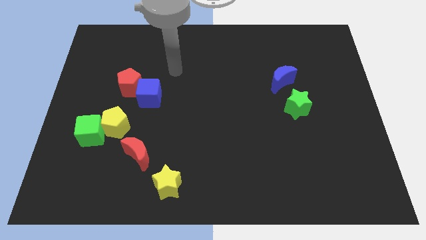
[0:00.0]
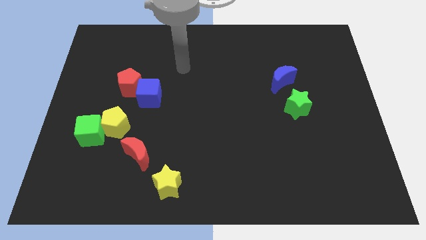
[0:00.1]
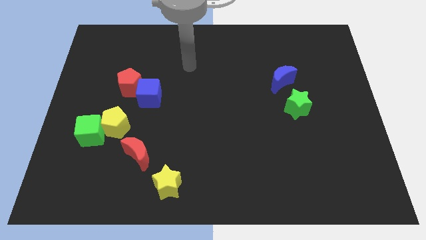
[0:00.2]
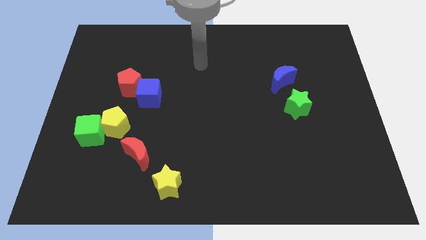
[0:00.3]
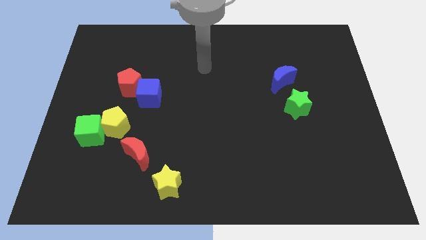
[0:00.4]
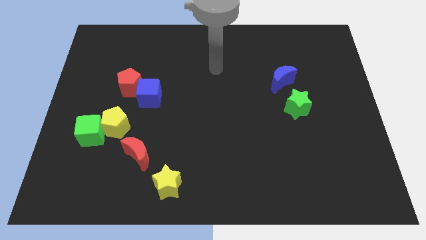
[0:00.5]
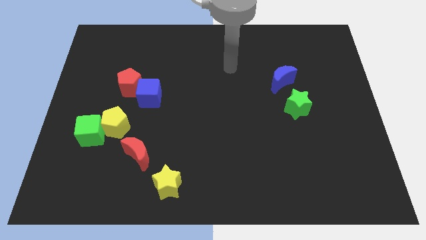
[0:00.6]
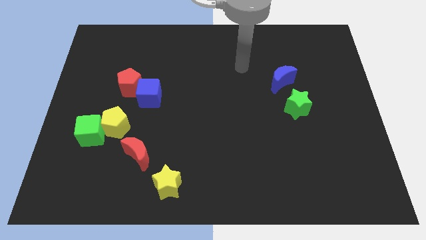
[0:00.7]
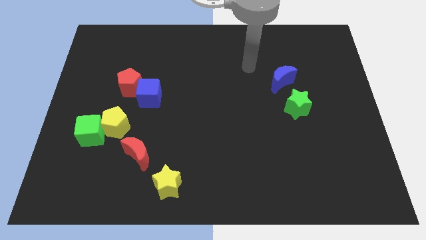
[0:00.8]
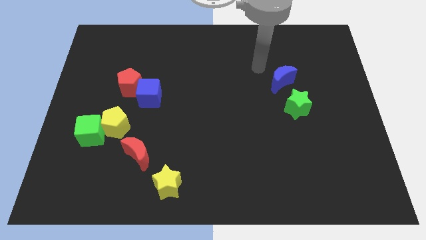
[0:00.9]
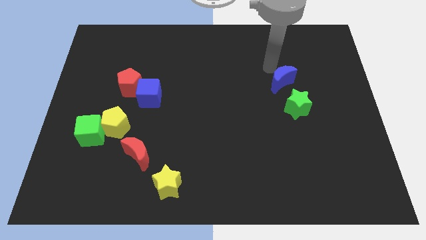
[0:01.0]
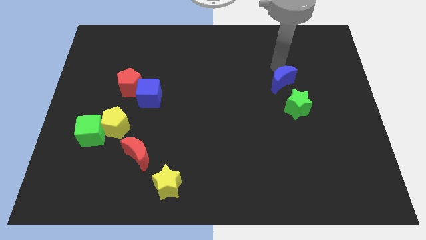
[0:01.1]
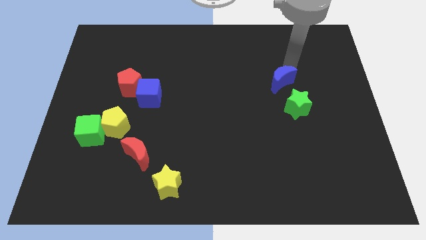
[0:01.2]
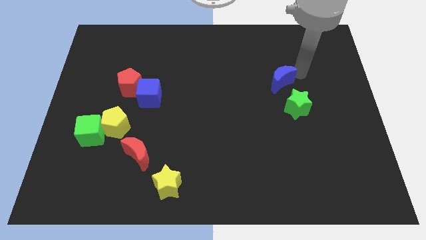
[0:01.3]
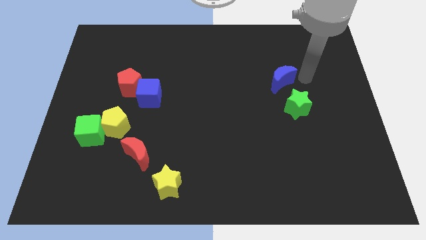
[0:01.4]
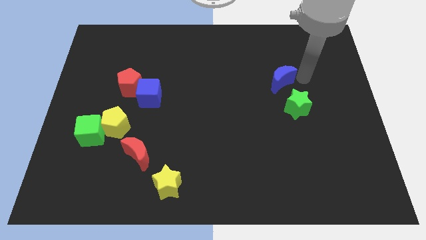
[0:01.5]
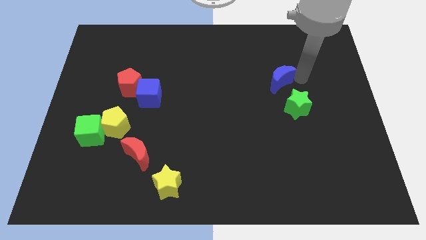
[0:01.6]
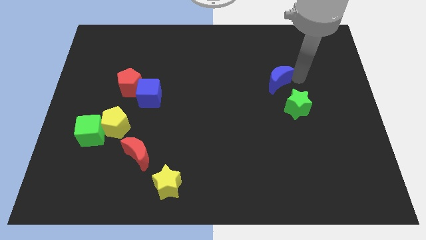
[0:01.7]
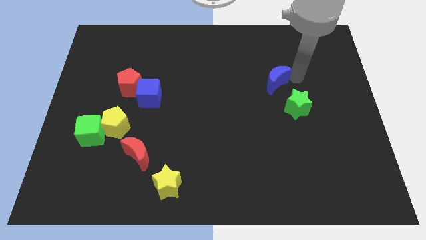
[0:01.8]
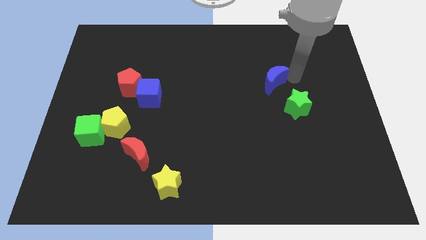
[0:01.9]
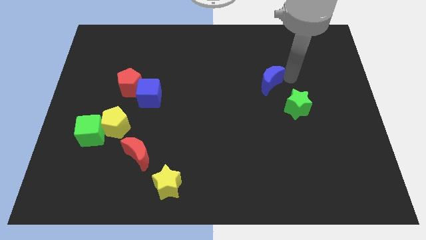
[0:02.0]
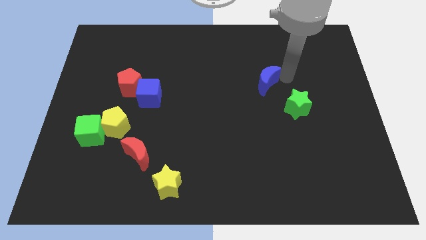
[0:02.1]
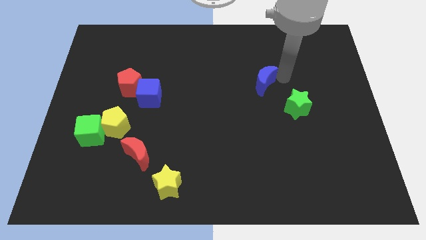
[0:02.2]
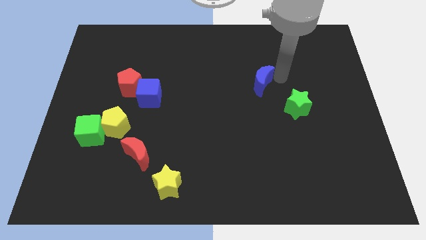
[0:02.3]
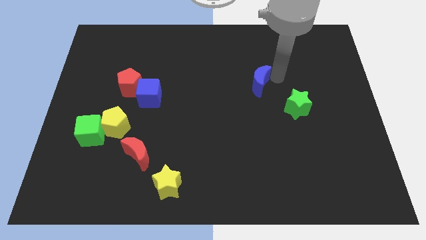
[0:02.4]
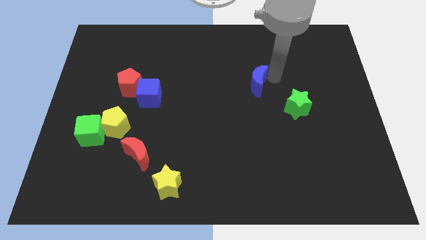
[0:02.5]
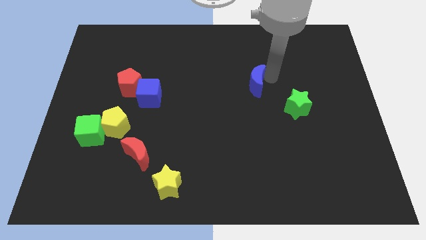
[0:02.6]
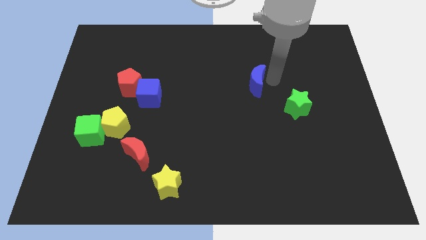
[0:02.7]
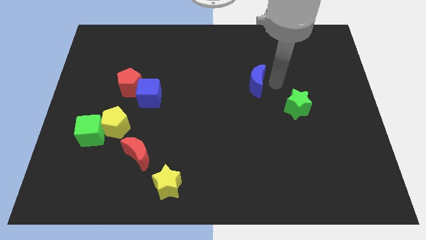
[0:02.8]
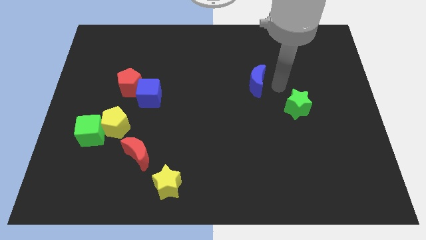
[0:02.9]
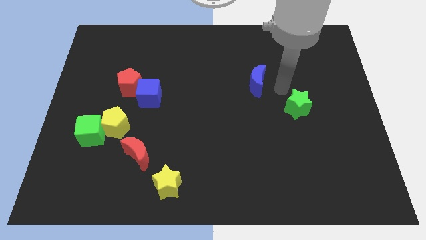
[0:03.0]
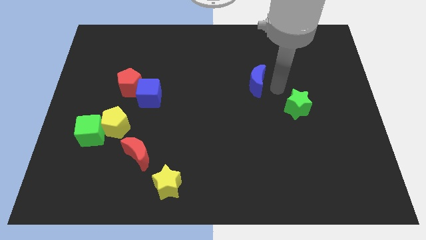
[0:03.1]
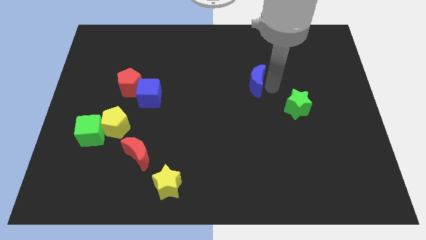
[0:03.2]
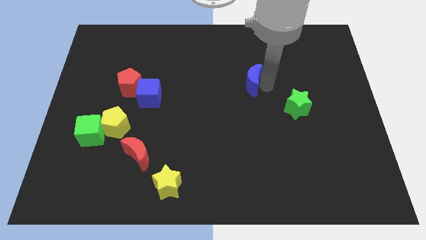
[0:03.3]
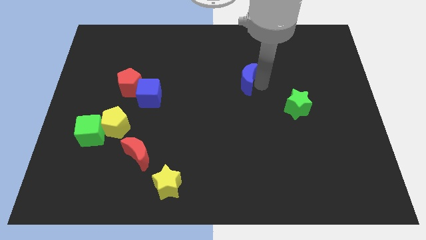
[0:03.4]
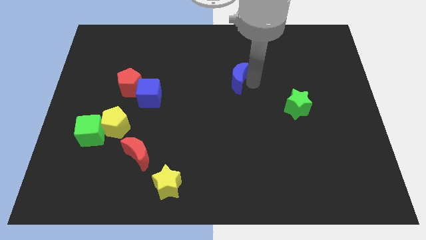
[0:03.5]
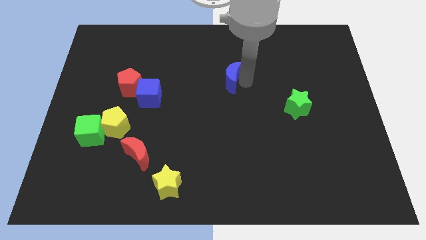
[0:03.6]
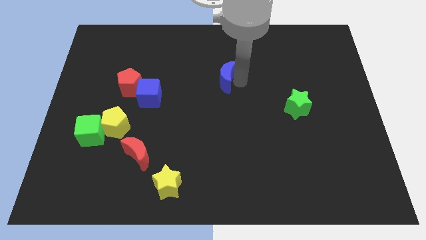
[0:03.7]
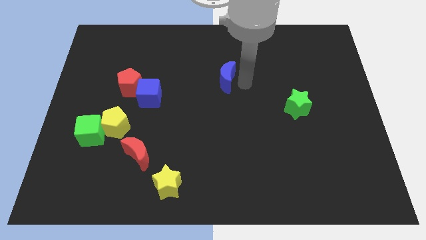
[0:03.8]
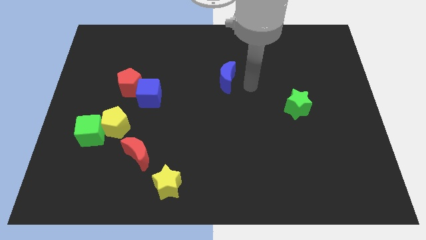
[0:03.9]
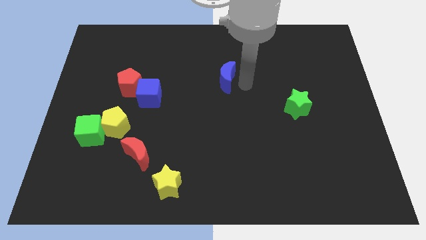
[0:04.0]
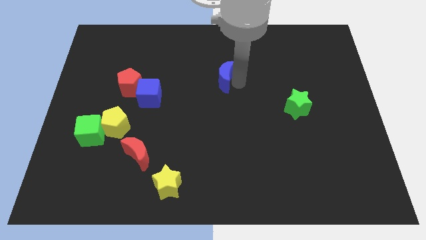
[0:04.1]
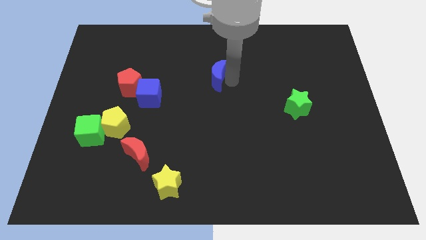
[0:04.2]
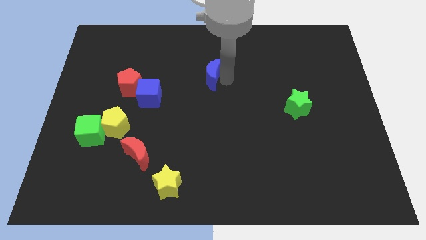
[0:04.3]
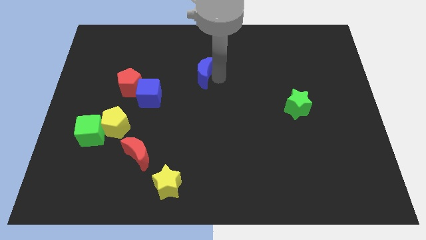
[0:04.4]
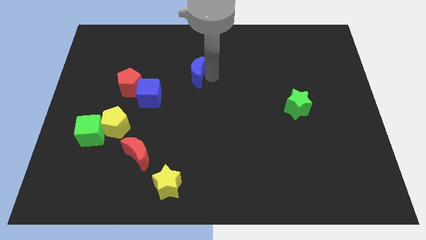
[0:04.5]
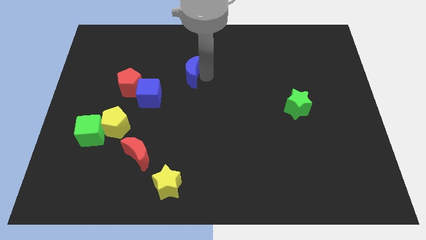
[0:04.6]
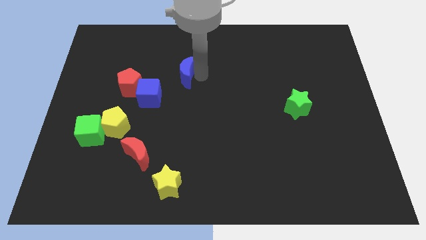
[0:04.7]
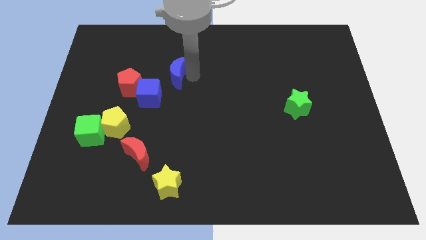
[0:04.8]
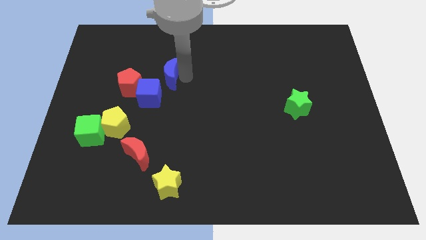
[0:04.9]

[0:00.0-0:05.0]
slide the blue moon to the top of the blue cube

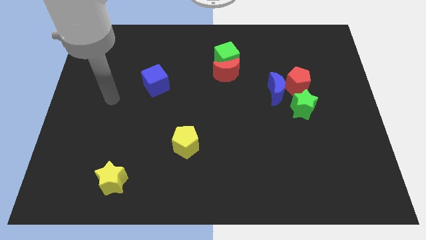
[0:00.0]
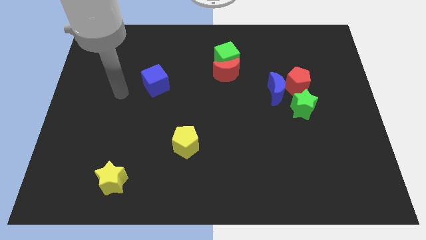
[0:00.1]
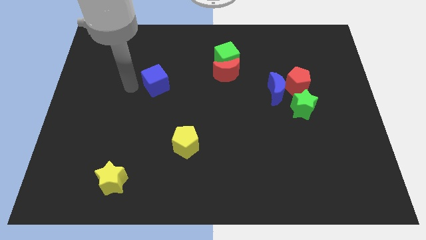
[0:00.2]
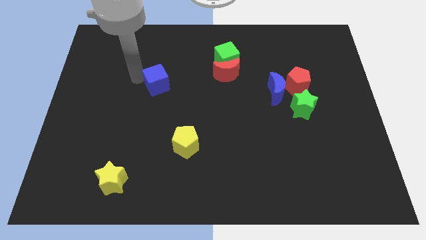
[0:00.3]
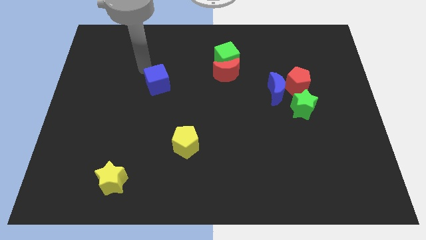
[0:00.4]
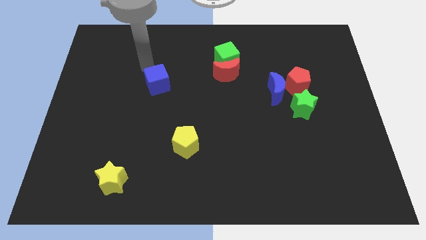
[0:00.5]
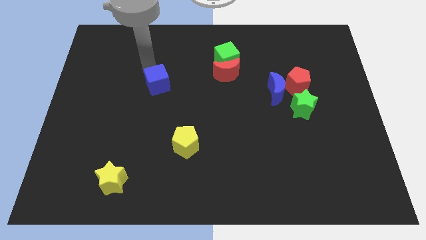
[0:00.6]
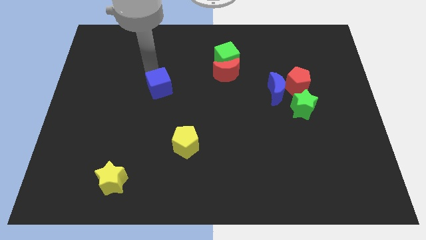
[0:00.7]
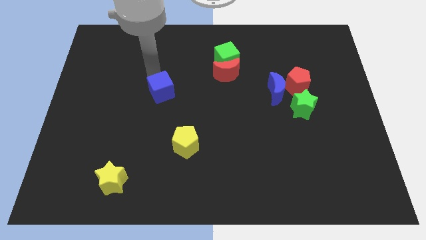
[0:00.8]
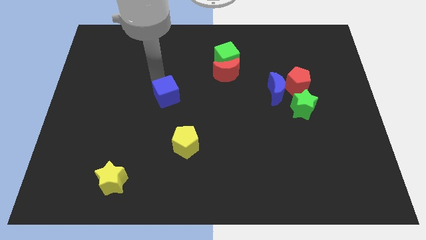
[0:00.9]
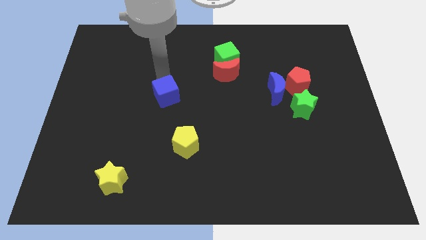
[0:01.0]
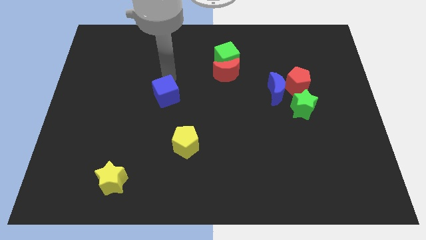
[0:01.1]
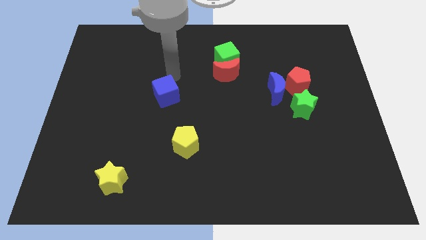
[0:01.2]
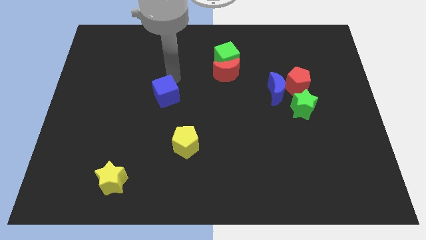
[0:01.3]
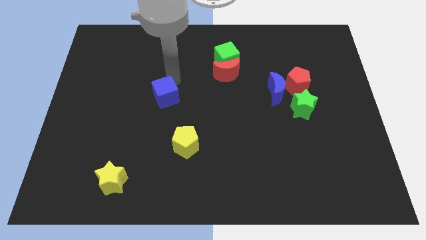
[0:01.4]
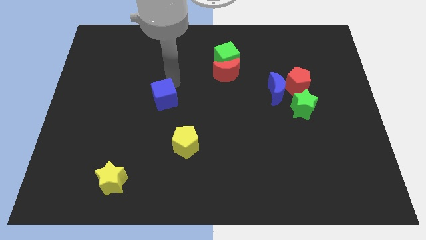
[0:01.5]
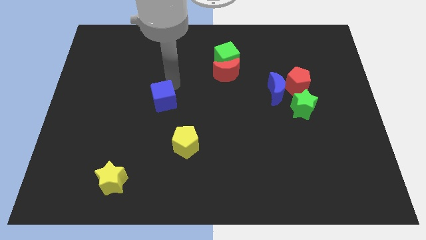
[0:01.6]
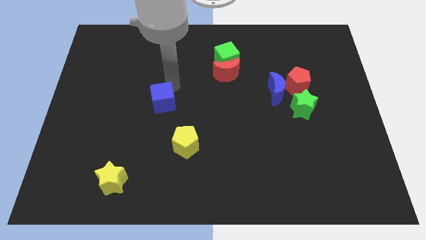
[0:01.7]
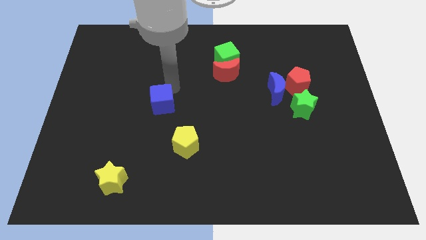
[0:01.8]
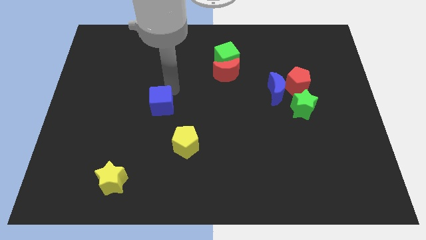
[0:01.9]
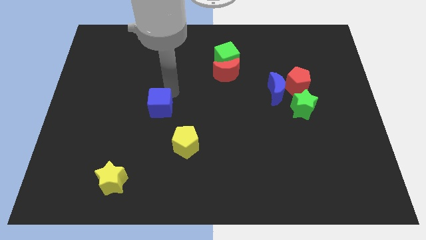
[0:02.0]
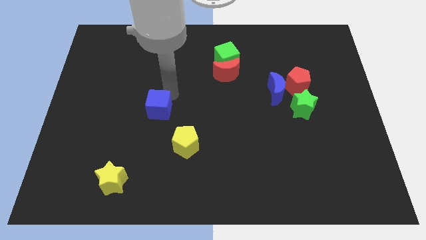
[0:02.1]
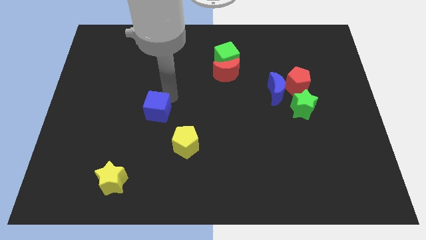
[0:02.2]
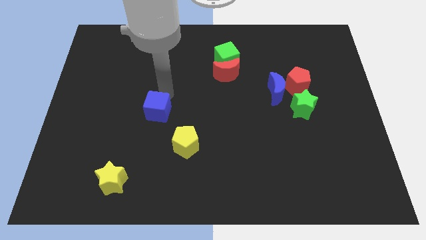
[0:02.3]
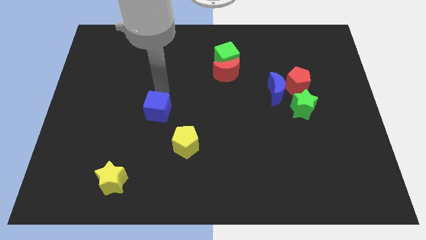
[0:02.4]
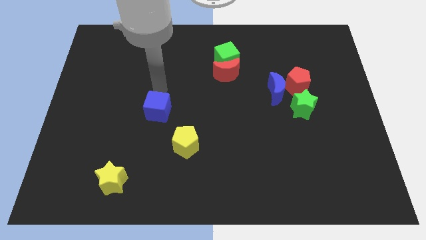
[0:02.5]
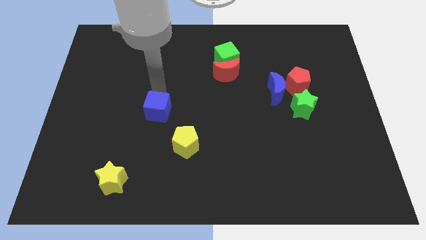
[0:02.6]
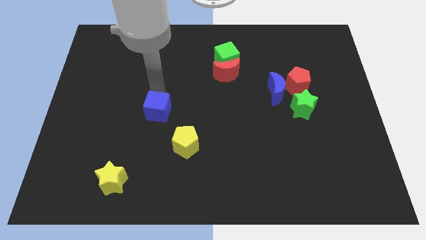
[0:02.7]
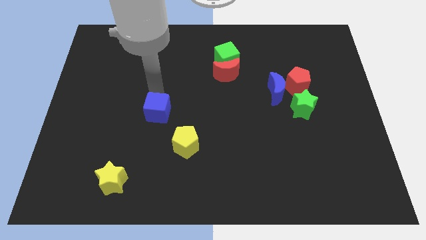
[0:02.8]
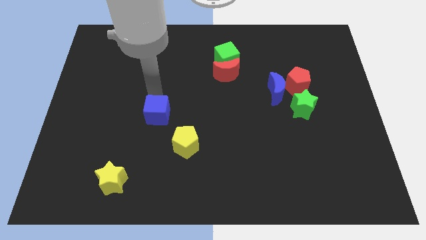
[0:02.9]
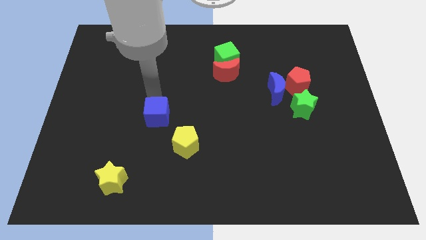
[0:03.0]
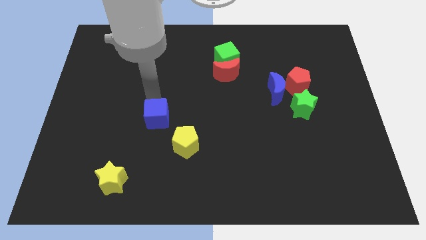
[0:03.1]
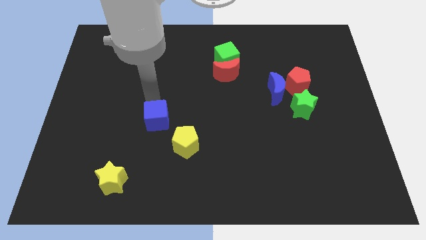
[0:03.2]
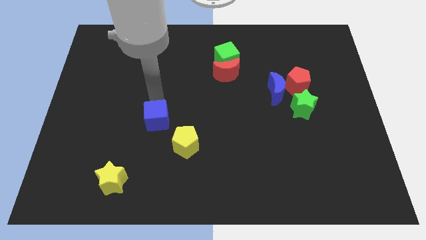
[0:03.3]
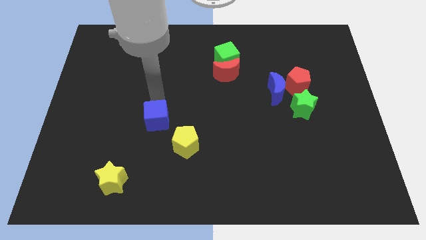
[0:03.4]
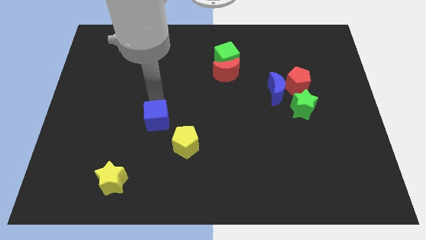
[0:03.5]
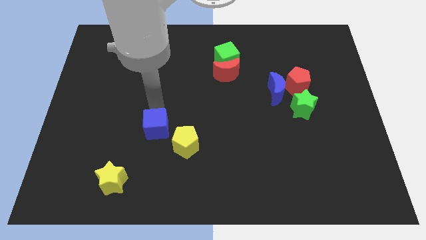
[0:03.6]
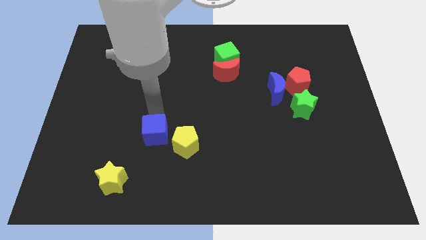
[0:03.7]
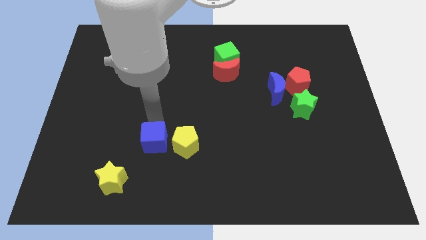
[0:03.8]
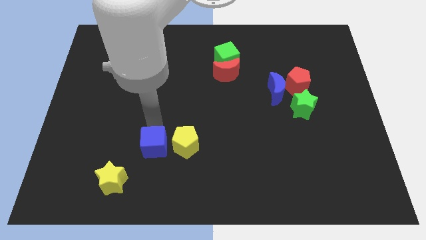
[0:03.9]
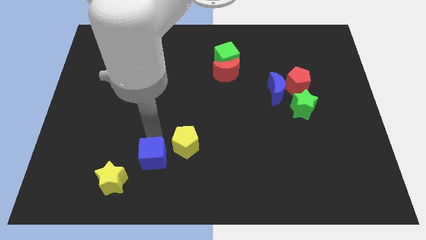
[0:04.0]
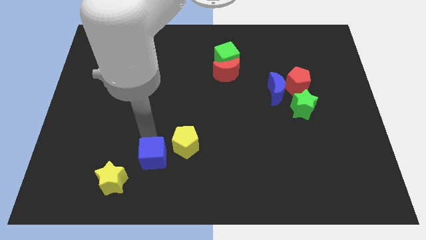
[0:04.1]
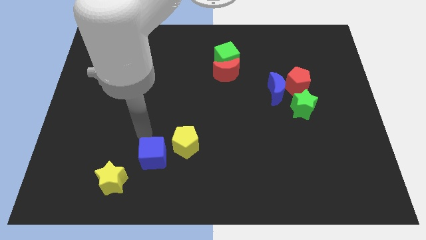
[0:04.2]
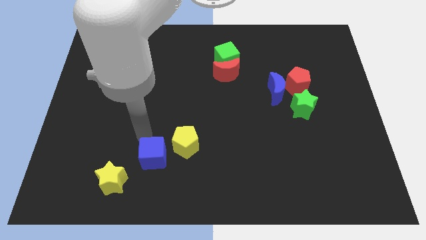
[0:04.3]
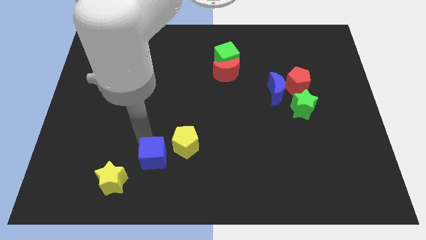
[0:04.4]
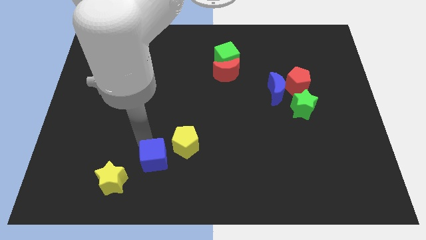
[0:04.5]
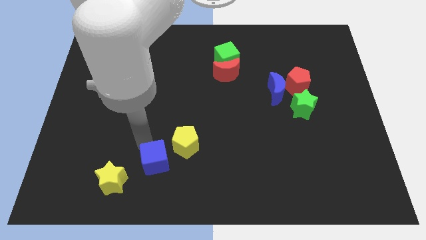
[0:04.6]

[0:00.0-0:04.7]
put the blue cube to the right side of the yellow star
